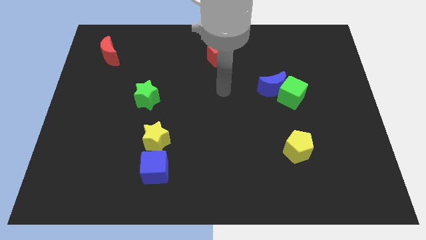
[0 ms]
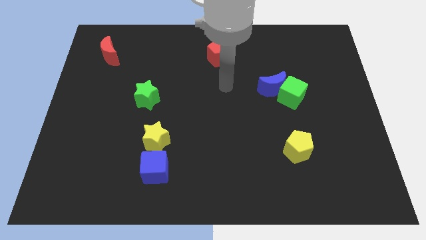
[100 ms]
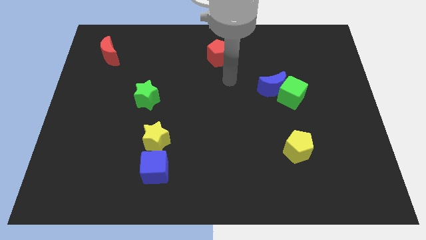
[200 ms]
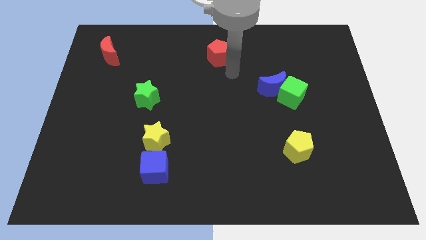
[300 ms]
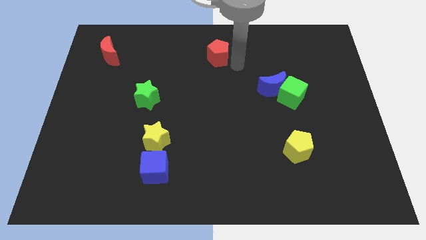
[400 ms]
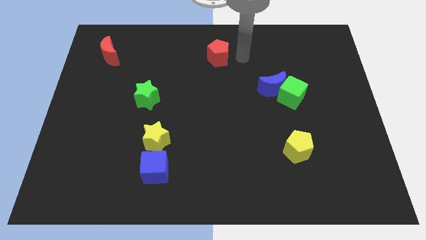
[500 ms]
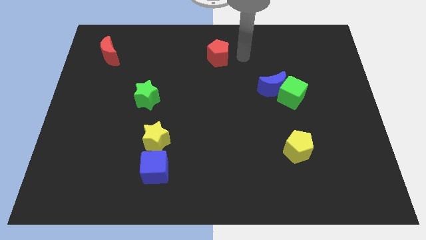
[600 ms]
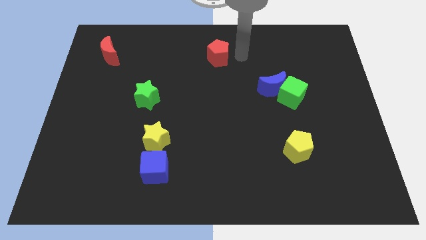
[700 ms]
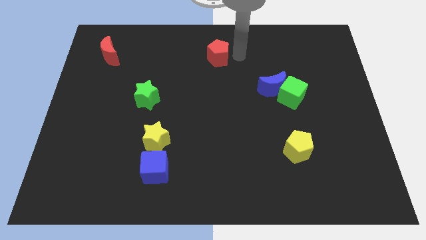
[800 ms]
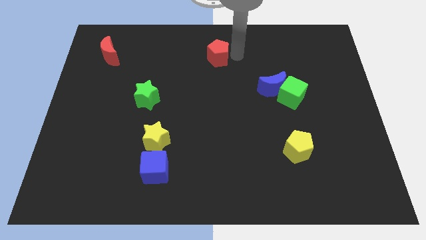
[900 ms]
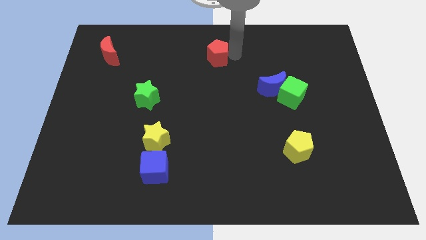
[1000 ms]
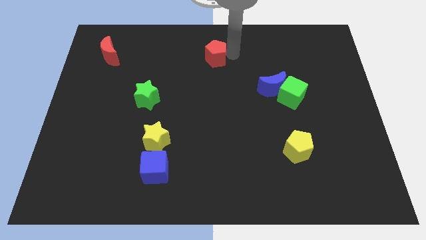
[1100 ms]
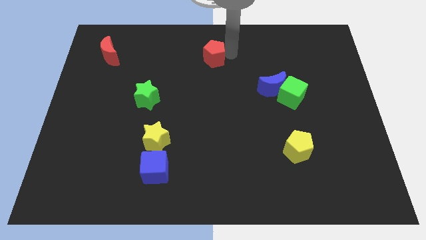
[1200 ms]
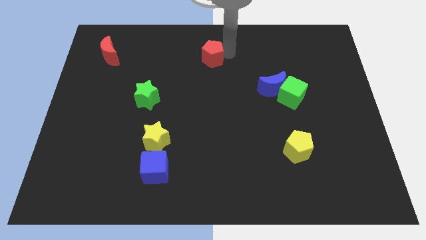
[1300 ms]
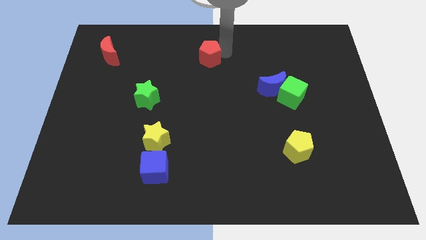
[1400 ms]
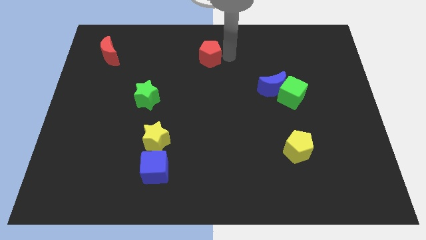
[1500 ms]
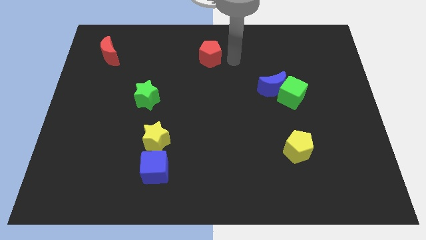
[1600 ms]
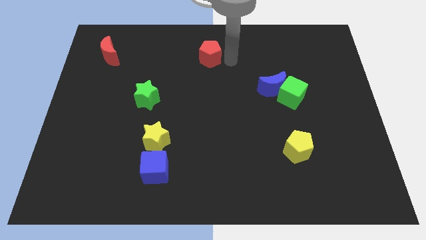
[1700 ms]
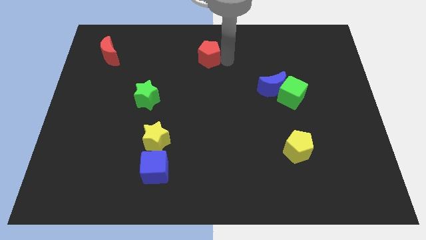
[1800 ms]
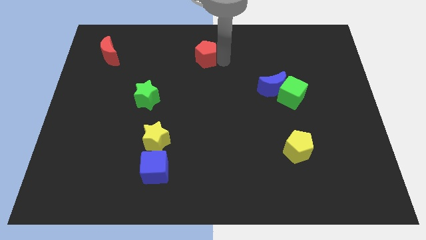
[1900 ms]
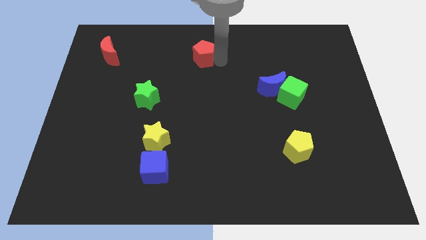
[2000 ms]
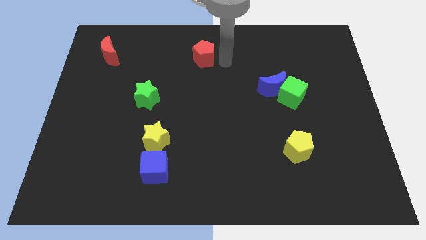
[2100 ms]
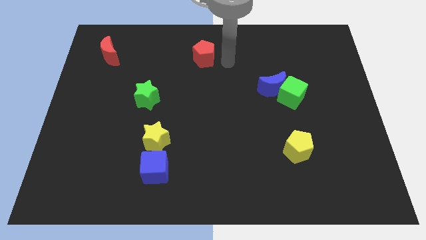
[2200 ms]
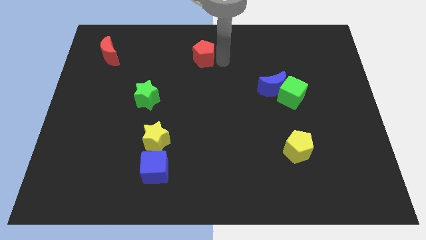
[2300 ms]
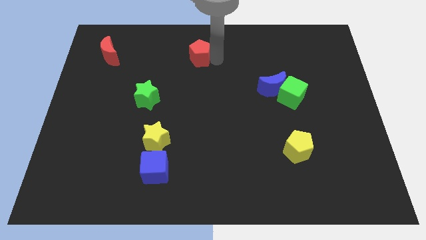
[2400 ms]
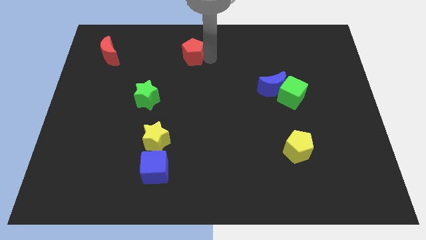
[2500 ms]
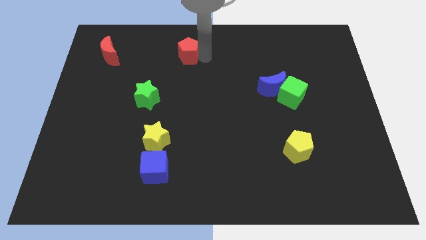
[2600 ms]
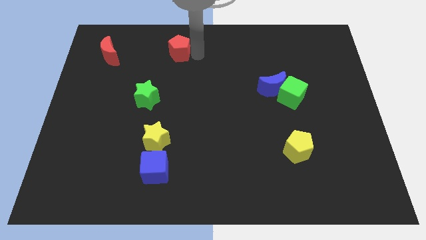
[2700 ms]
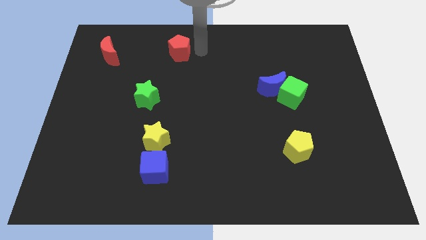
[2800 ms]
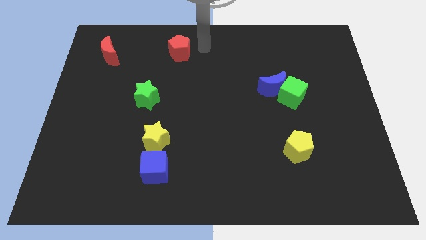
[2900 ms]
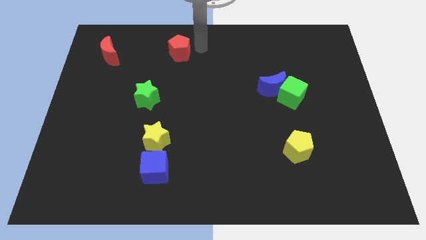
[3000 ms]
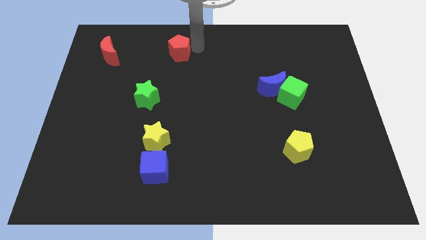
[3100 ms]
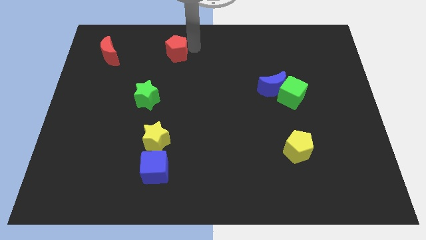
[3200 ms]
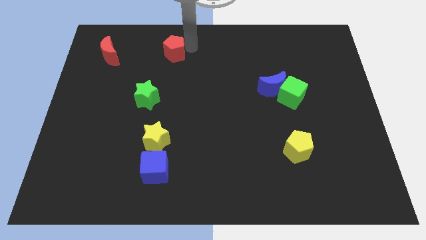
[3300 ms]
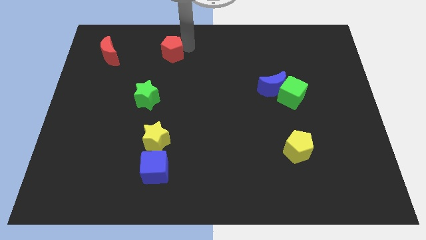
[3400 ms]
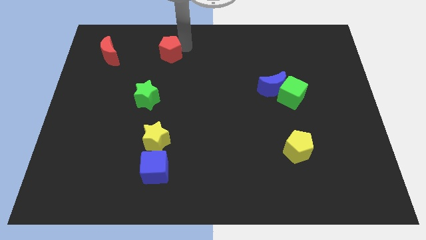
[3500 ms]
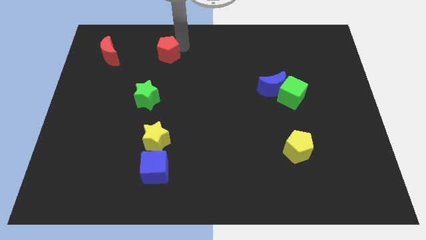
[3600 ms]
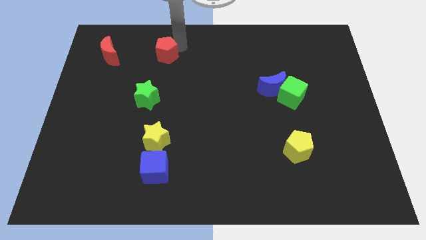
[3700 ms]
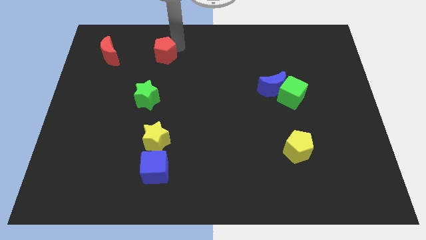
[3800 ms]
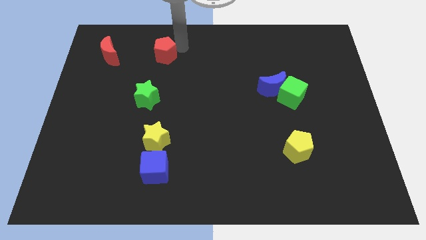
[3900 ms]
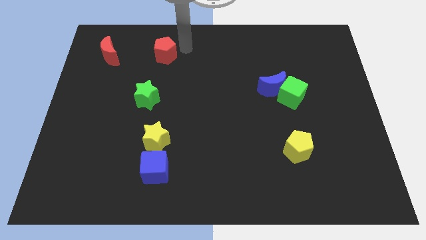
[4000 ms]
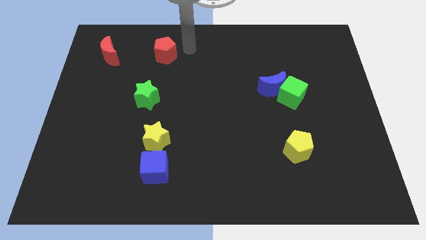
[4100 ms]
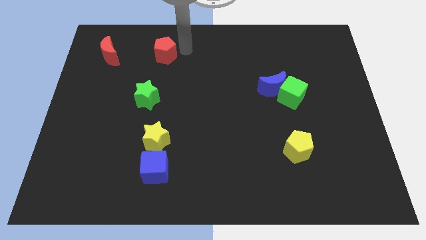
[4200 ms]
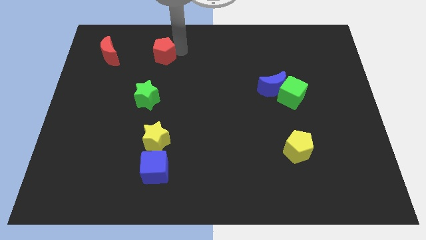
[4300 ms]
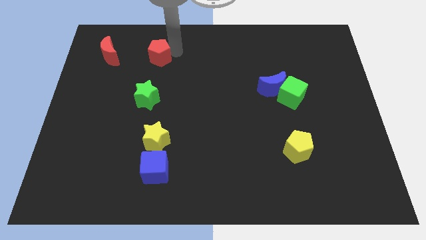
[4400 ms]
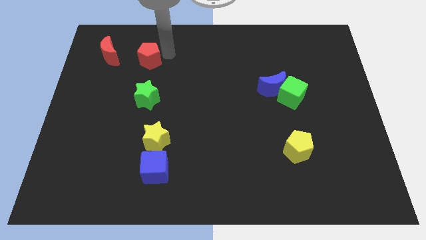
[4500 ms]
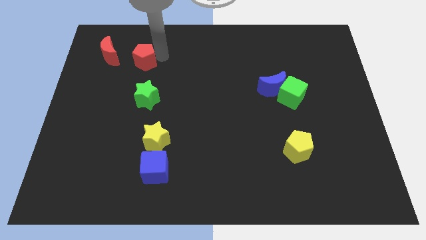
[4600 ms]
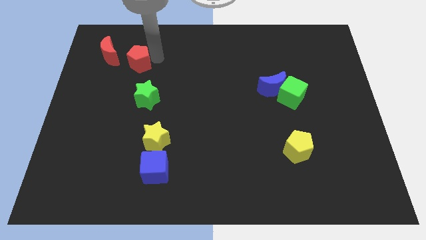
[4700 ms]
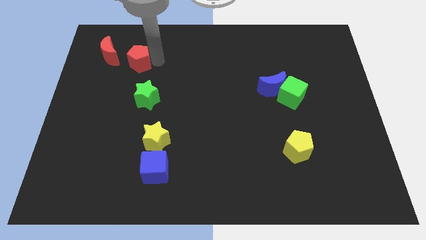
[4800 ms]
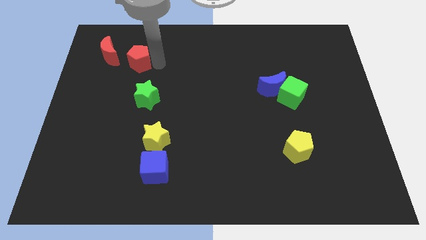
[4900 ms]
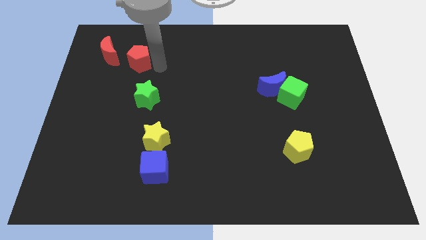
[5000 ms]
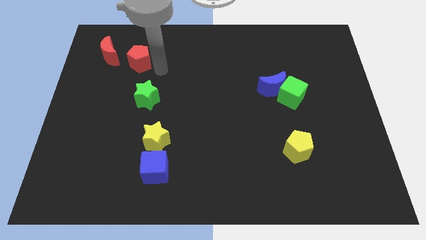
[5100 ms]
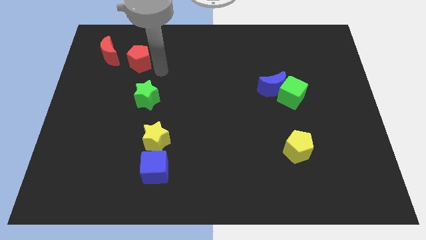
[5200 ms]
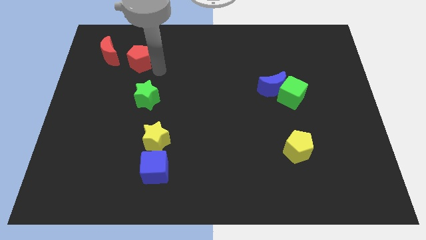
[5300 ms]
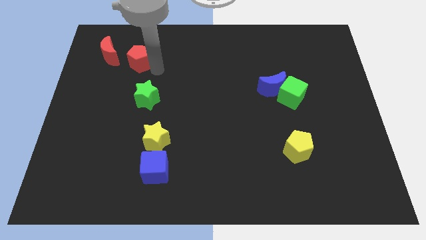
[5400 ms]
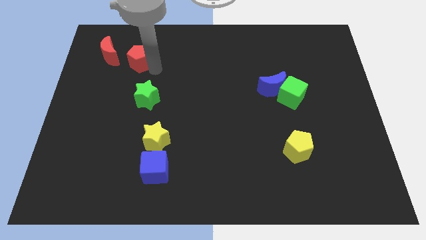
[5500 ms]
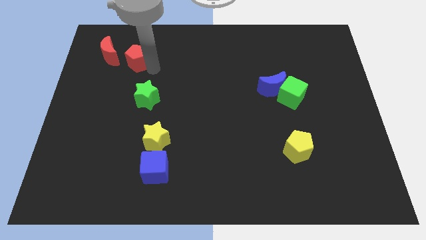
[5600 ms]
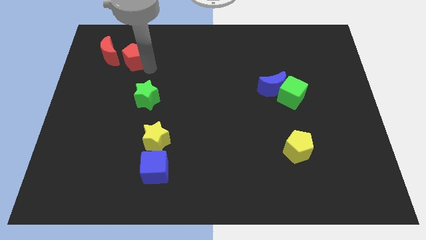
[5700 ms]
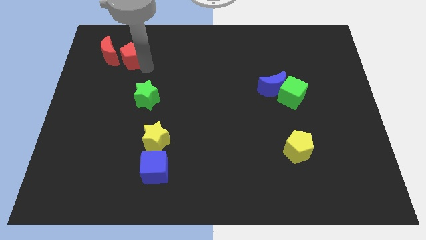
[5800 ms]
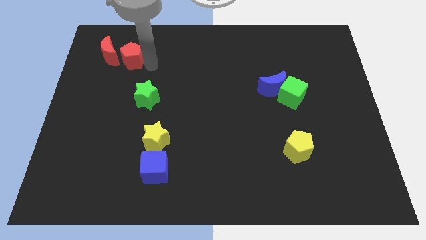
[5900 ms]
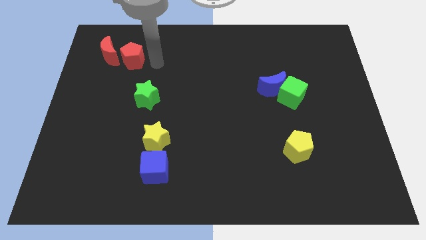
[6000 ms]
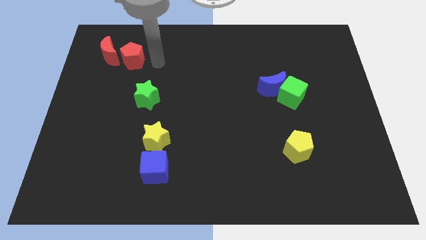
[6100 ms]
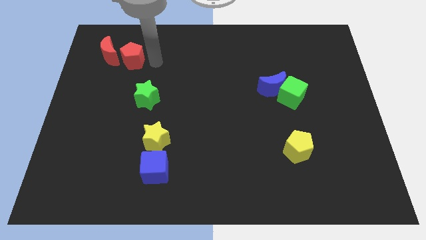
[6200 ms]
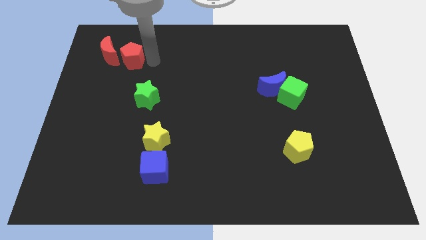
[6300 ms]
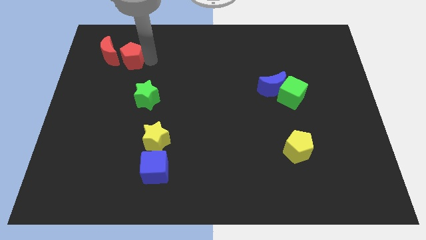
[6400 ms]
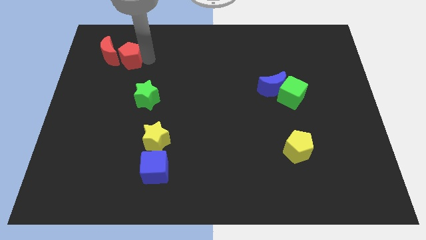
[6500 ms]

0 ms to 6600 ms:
slide the red pentagon towards the red moon
